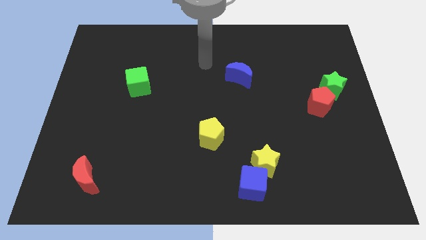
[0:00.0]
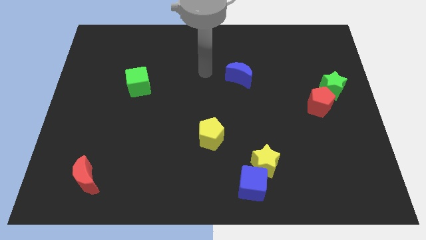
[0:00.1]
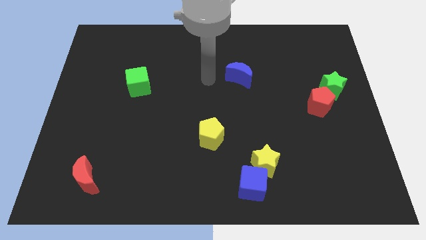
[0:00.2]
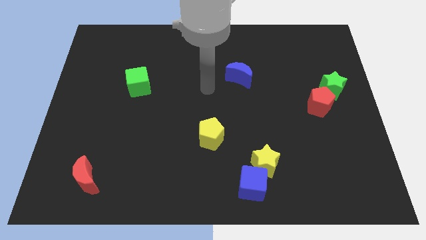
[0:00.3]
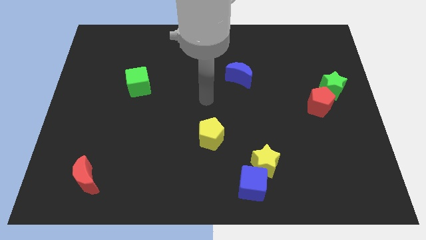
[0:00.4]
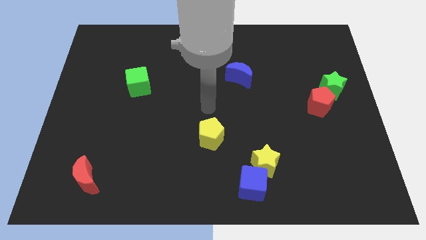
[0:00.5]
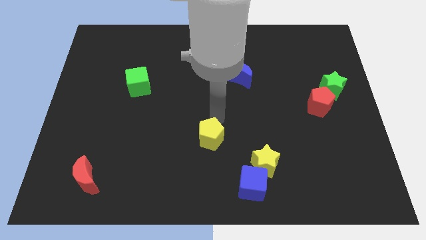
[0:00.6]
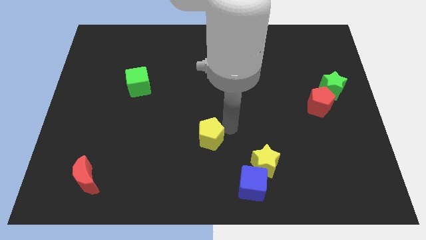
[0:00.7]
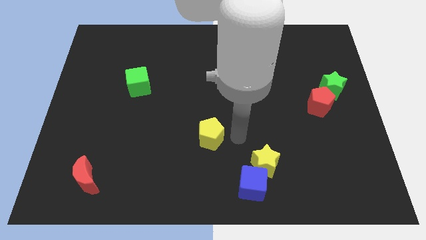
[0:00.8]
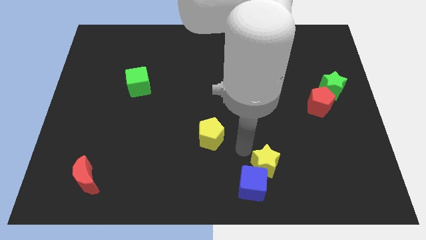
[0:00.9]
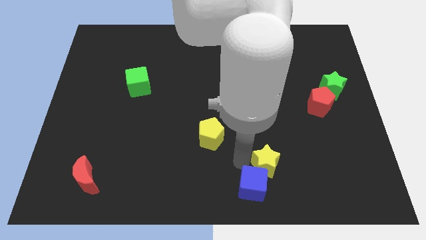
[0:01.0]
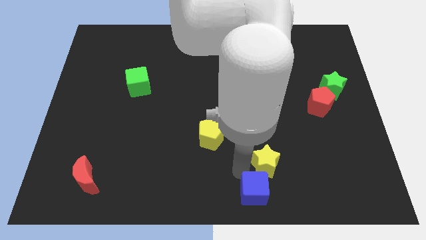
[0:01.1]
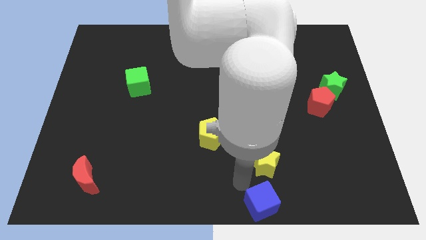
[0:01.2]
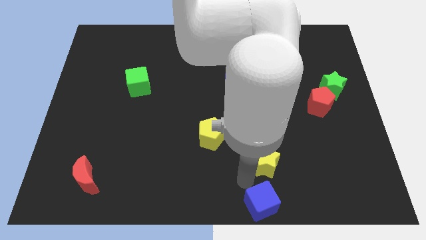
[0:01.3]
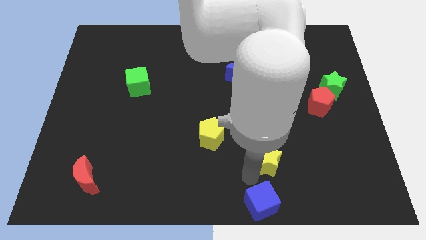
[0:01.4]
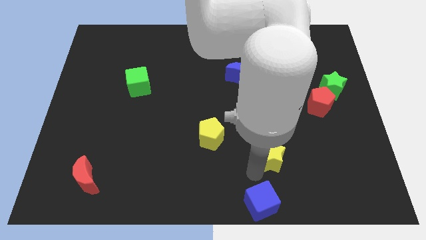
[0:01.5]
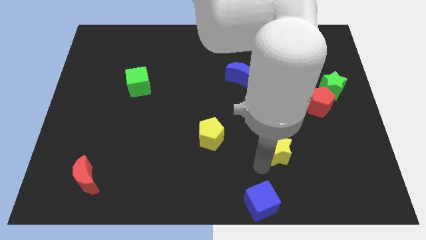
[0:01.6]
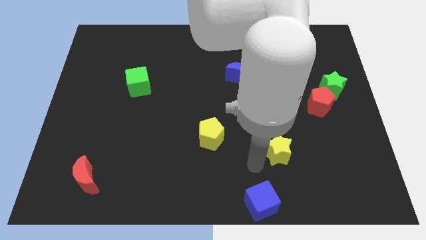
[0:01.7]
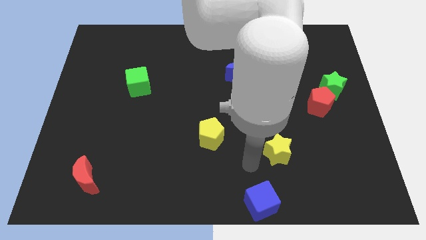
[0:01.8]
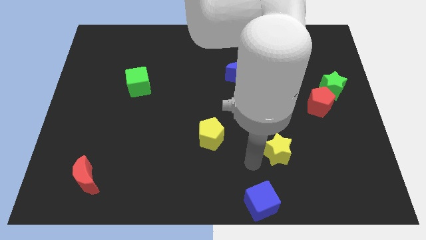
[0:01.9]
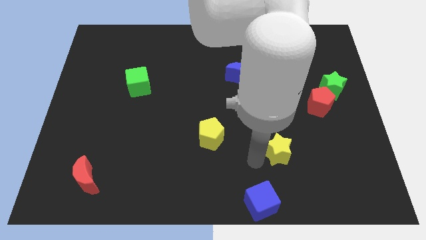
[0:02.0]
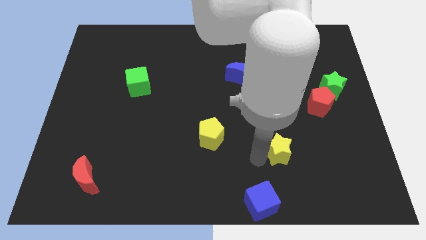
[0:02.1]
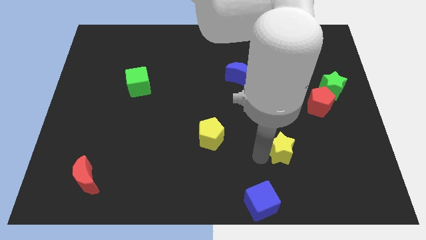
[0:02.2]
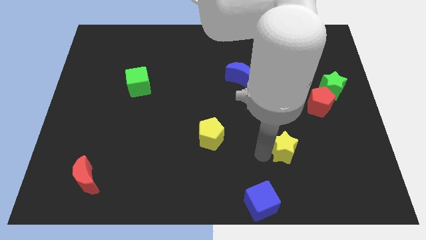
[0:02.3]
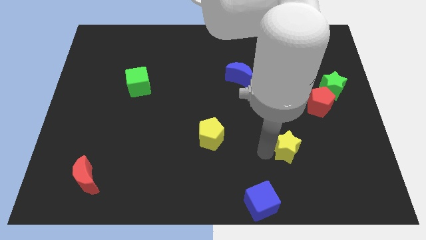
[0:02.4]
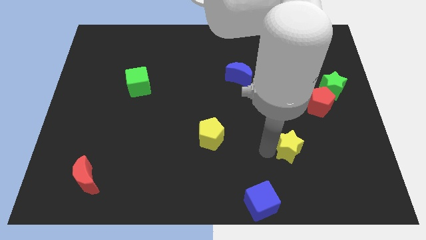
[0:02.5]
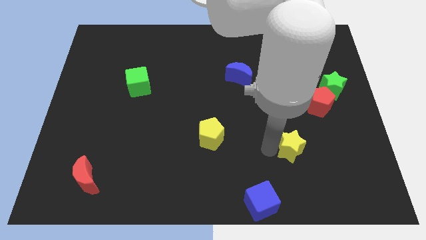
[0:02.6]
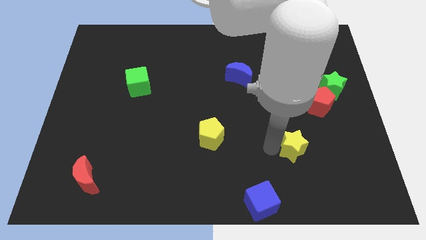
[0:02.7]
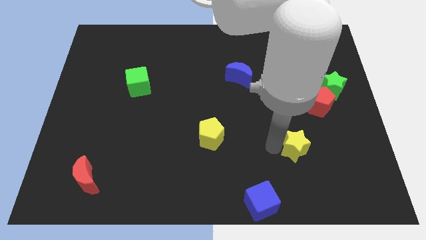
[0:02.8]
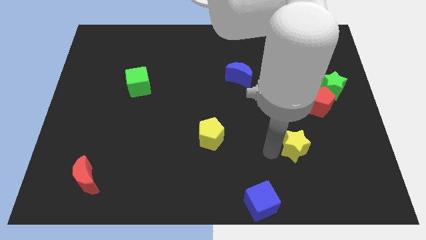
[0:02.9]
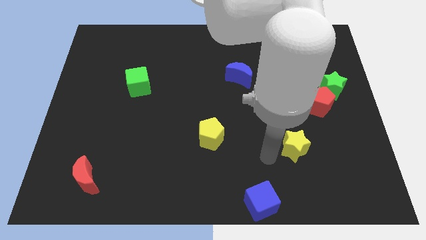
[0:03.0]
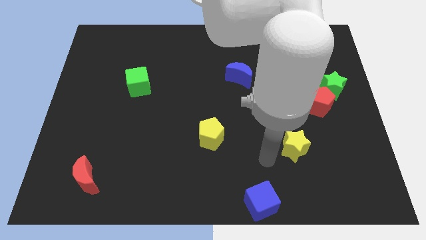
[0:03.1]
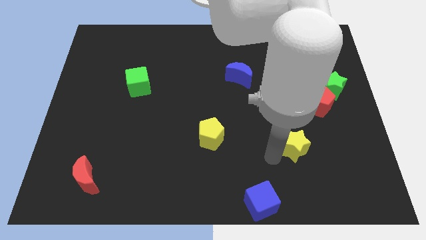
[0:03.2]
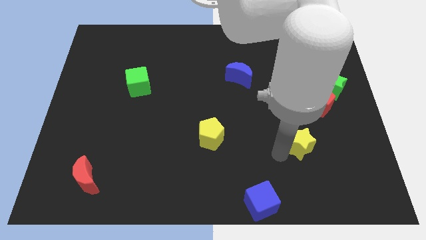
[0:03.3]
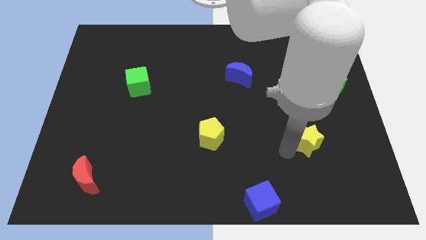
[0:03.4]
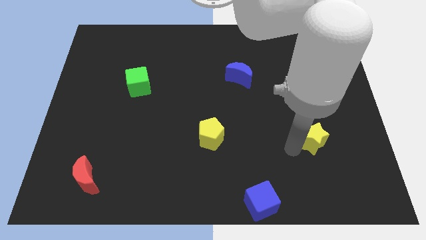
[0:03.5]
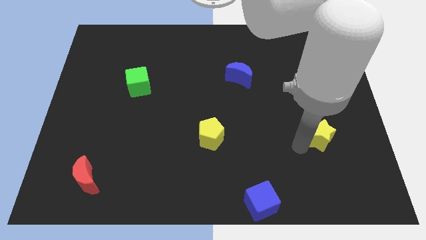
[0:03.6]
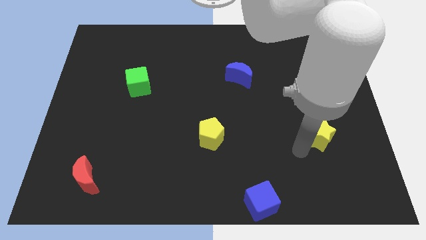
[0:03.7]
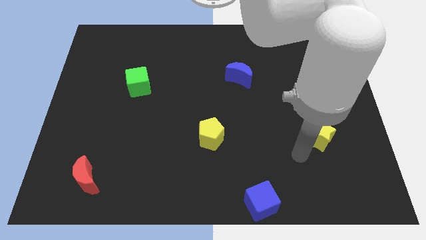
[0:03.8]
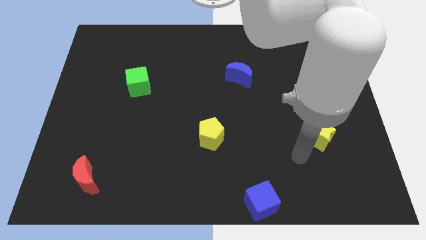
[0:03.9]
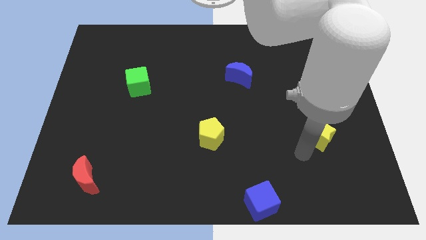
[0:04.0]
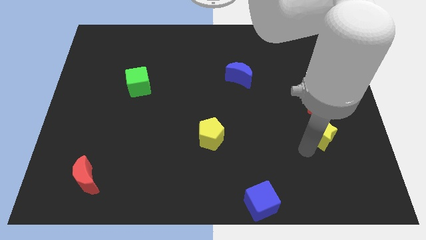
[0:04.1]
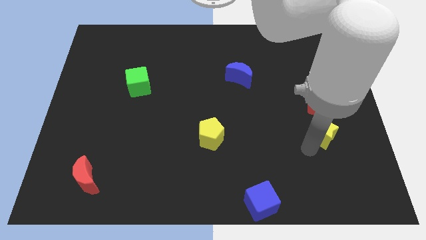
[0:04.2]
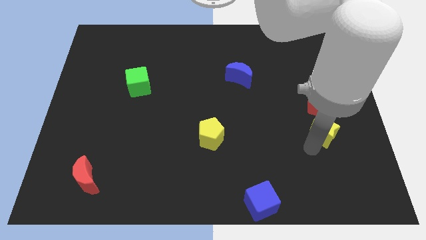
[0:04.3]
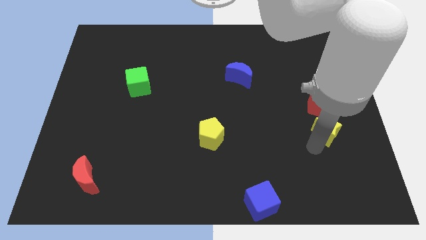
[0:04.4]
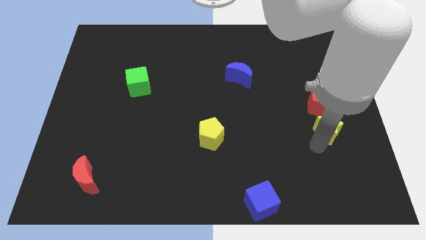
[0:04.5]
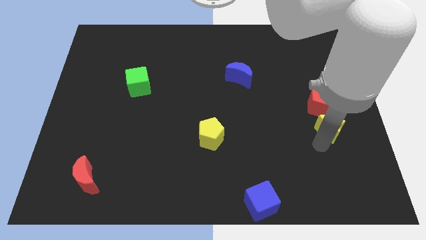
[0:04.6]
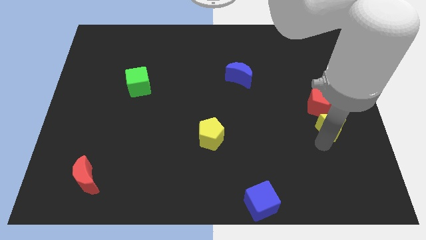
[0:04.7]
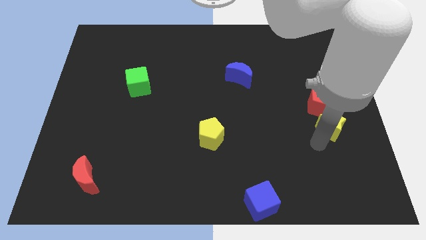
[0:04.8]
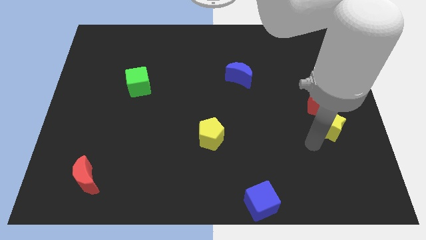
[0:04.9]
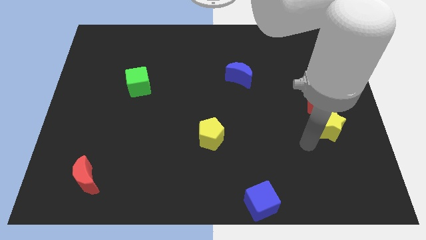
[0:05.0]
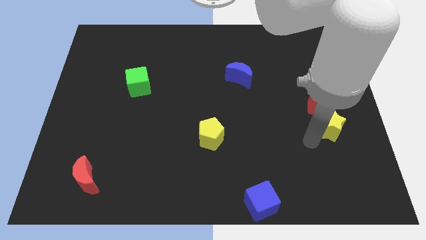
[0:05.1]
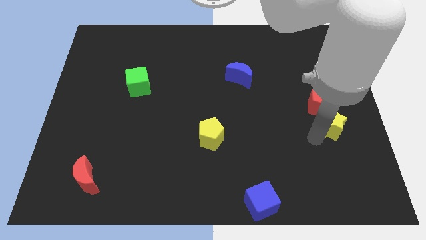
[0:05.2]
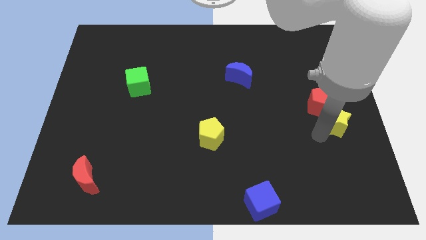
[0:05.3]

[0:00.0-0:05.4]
push the yellow star to the center right

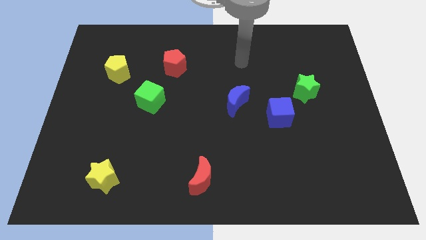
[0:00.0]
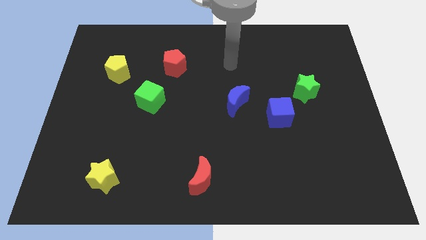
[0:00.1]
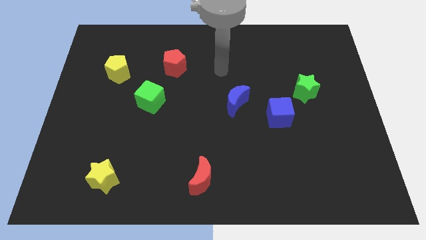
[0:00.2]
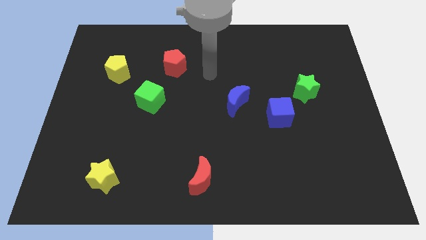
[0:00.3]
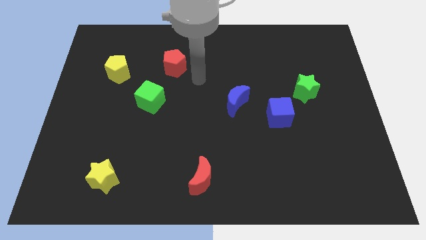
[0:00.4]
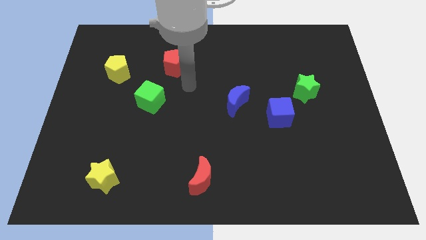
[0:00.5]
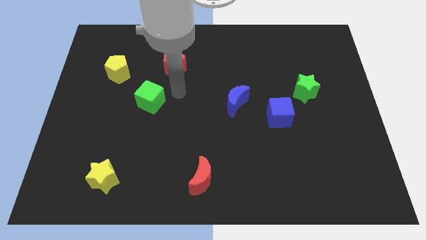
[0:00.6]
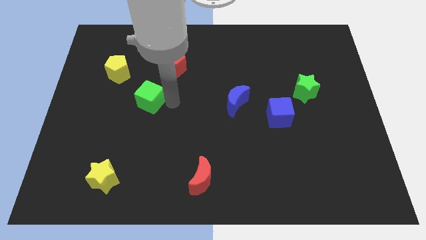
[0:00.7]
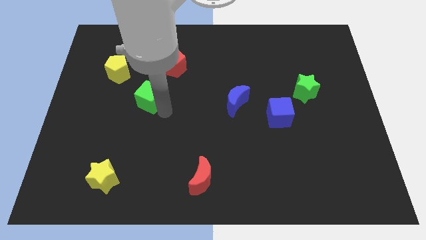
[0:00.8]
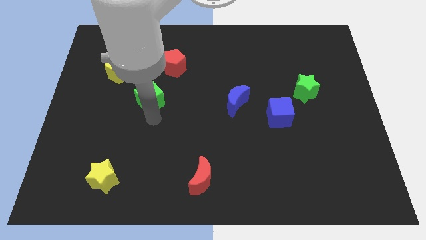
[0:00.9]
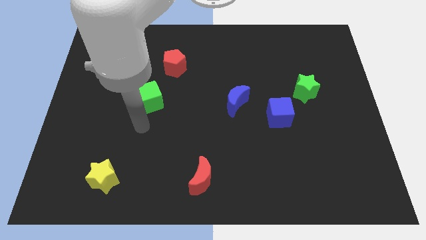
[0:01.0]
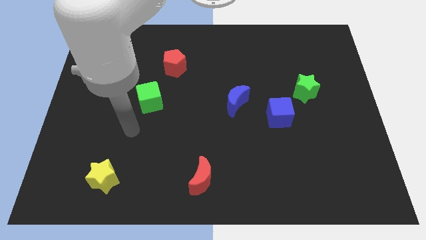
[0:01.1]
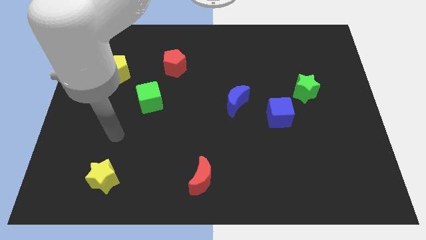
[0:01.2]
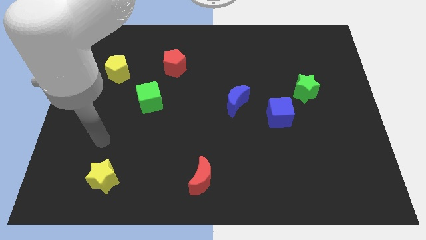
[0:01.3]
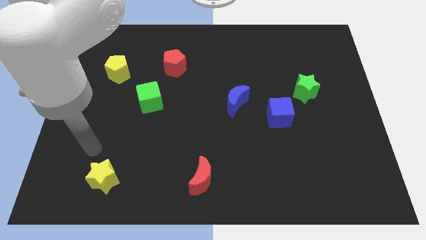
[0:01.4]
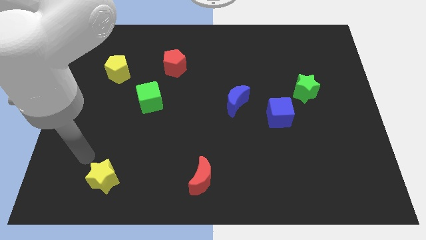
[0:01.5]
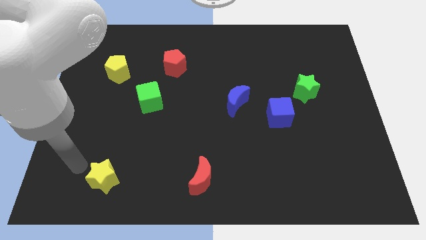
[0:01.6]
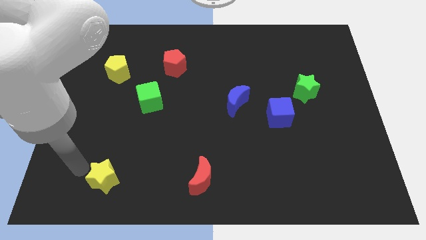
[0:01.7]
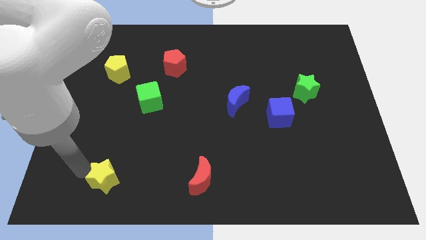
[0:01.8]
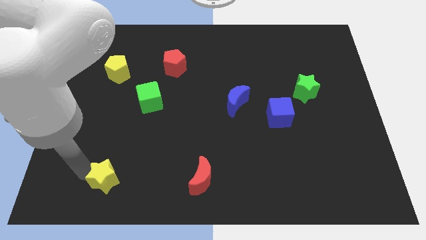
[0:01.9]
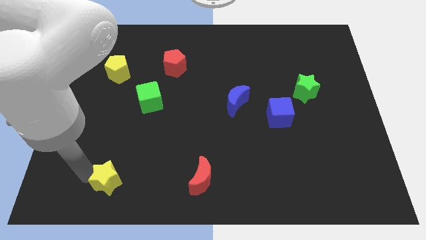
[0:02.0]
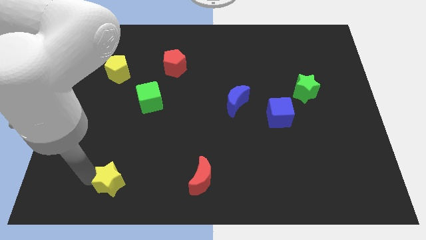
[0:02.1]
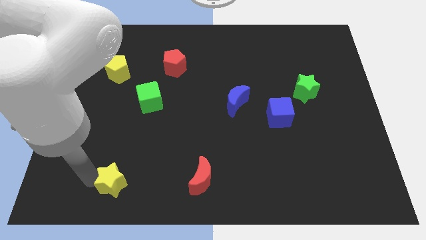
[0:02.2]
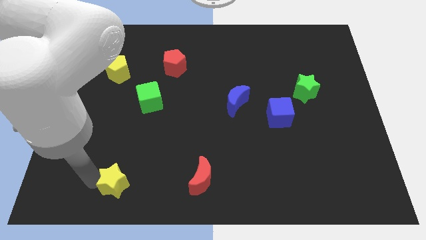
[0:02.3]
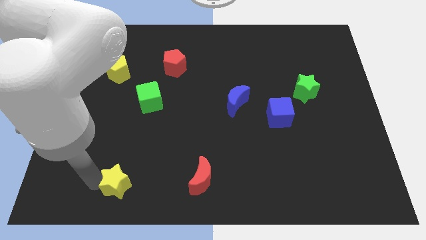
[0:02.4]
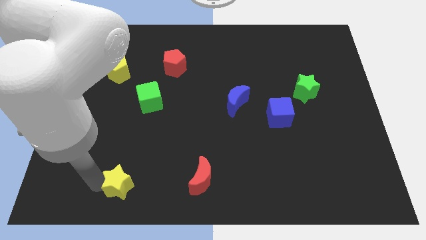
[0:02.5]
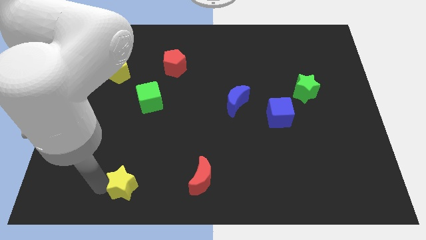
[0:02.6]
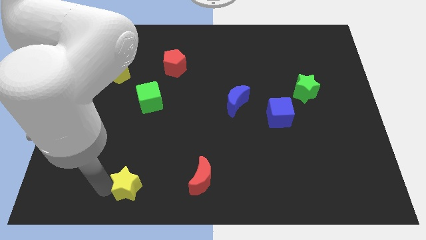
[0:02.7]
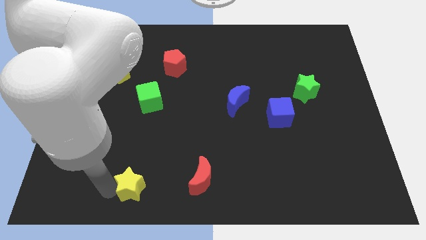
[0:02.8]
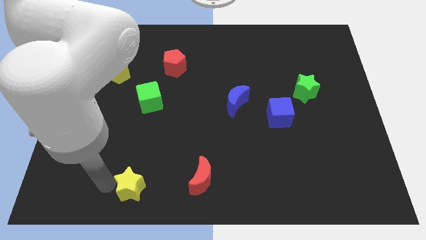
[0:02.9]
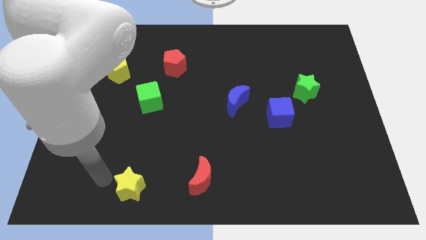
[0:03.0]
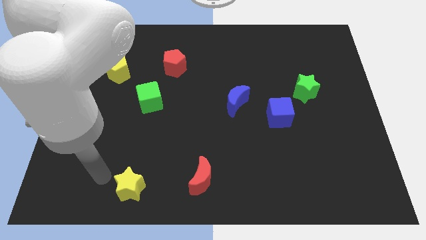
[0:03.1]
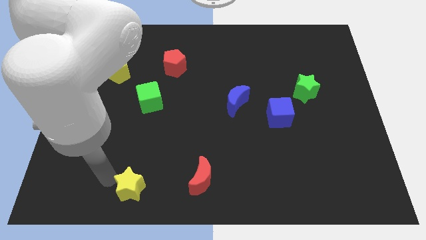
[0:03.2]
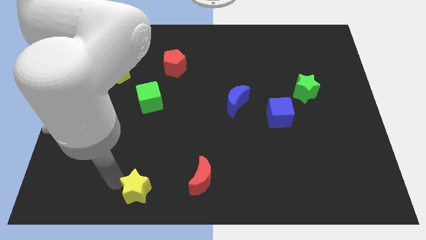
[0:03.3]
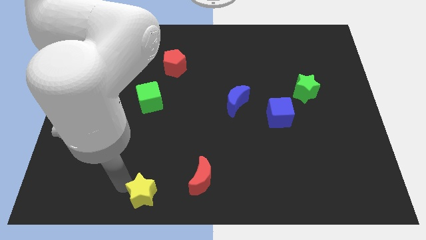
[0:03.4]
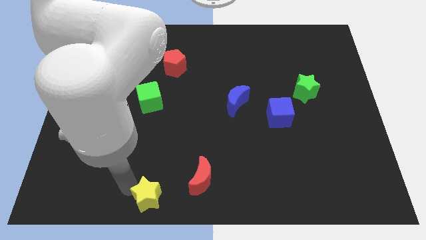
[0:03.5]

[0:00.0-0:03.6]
put the yellow star to the bottom
